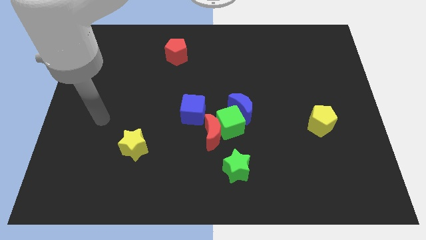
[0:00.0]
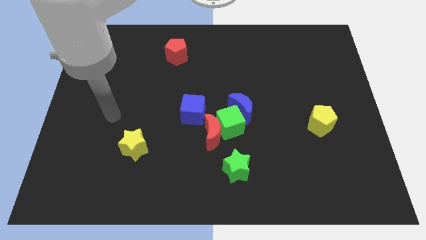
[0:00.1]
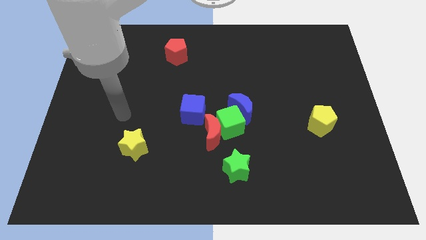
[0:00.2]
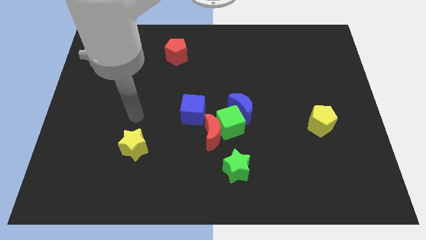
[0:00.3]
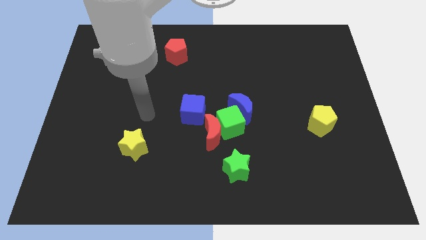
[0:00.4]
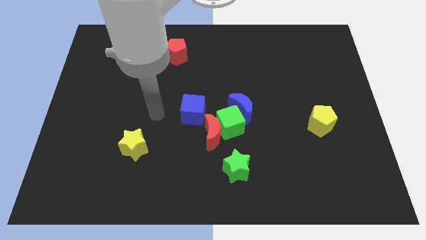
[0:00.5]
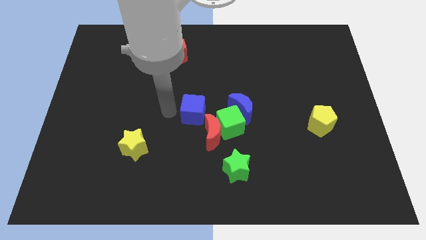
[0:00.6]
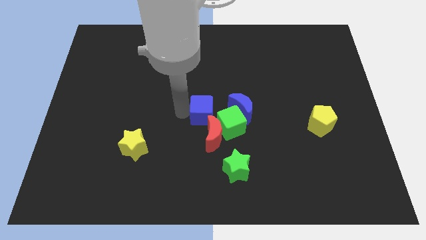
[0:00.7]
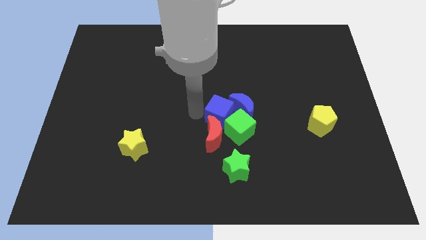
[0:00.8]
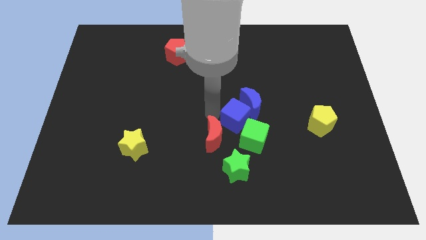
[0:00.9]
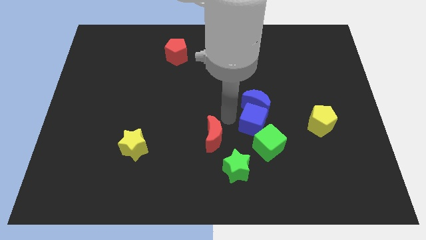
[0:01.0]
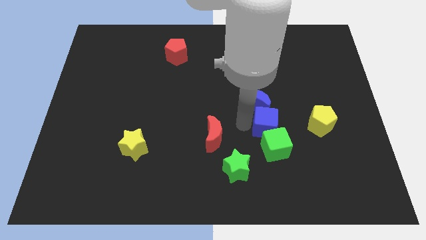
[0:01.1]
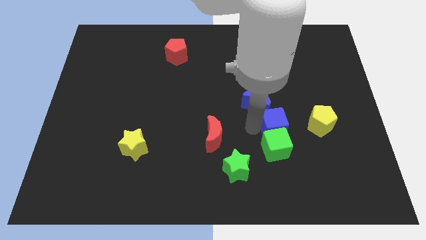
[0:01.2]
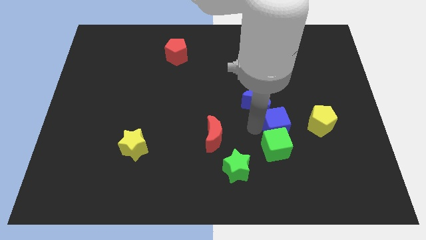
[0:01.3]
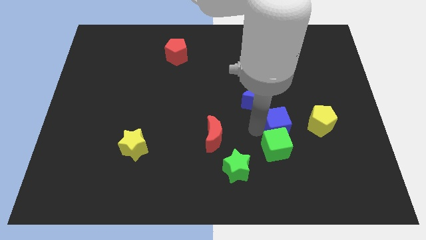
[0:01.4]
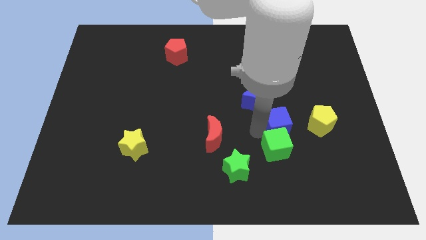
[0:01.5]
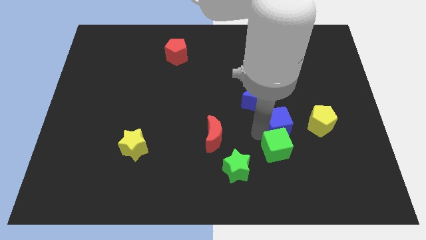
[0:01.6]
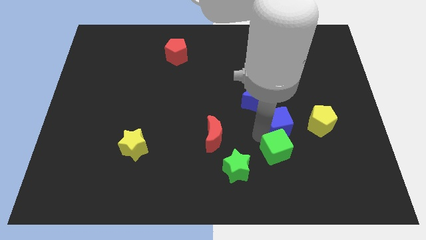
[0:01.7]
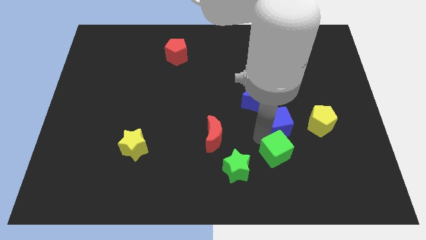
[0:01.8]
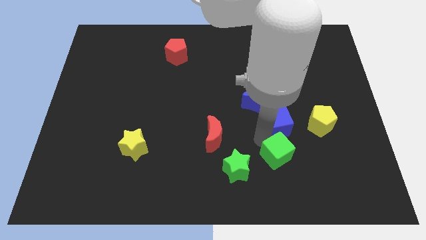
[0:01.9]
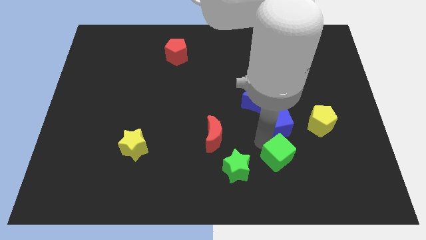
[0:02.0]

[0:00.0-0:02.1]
pull the green cube apart from the red moon, blue moon, and blue cube

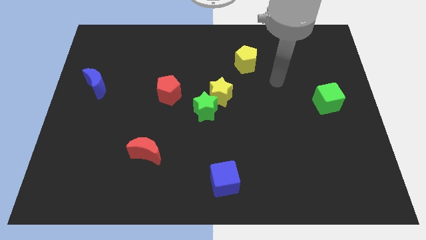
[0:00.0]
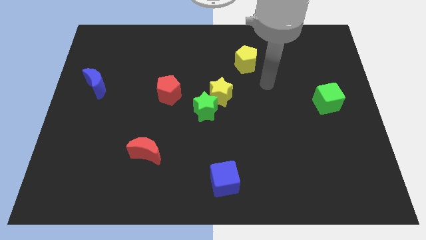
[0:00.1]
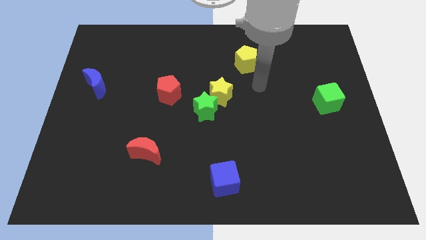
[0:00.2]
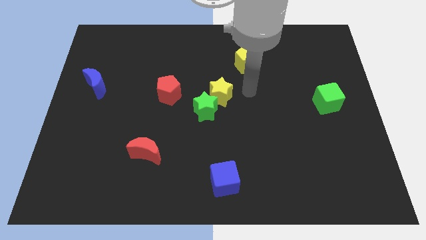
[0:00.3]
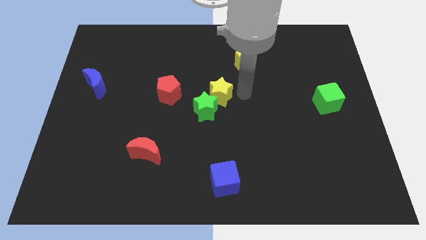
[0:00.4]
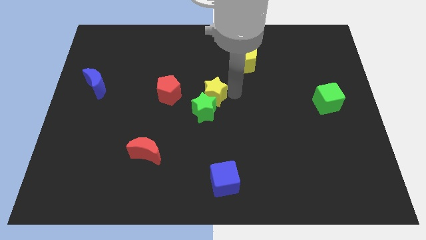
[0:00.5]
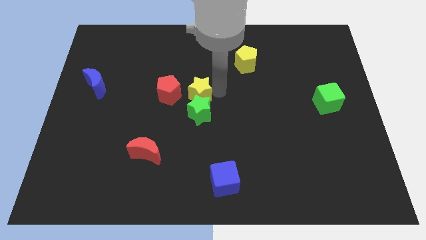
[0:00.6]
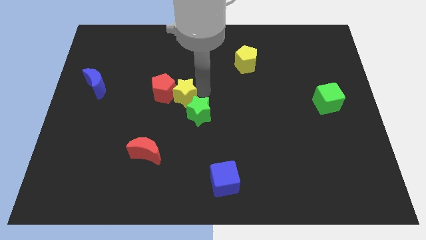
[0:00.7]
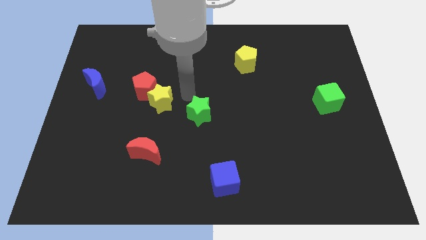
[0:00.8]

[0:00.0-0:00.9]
separate the green star from the yellow star

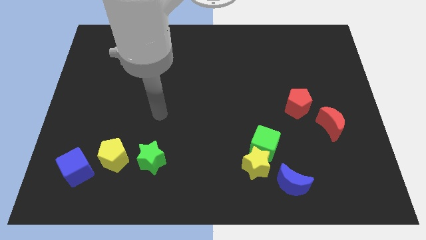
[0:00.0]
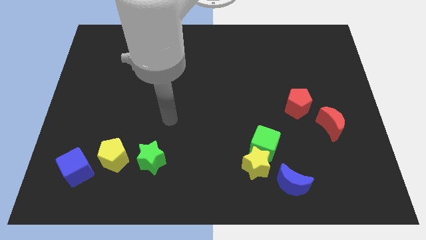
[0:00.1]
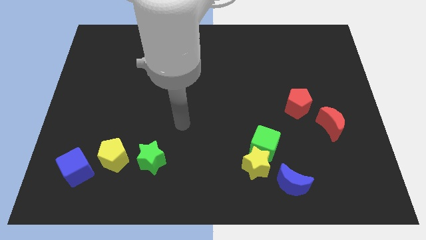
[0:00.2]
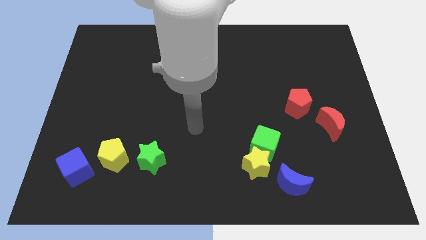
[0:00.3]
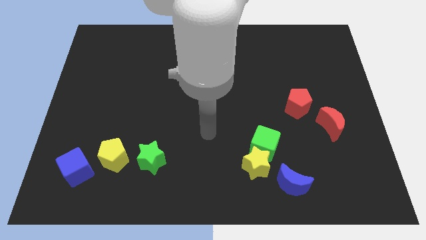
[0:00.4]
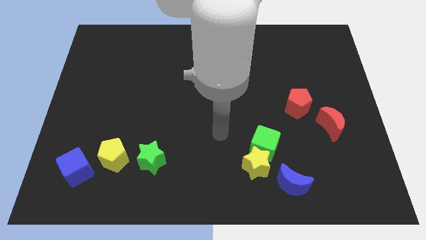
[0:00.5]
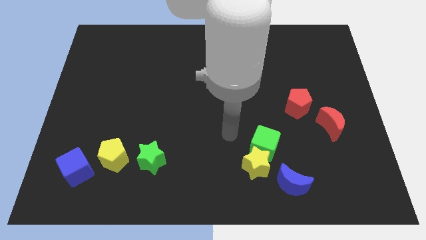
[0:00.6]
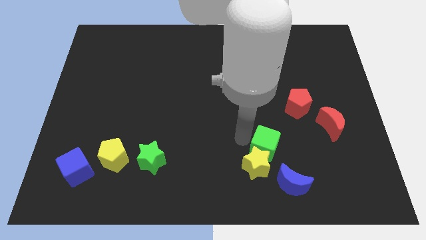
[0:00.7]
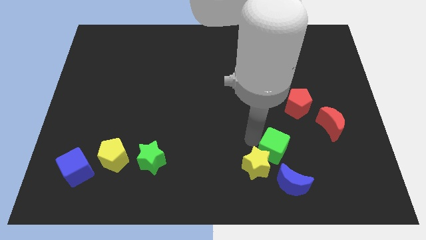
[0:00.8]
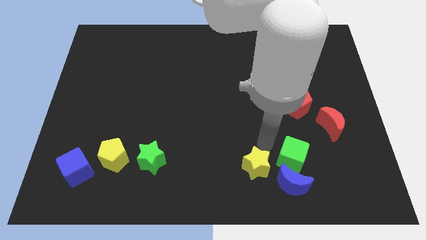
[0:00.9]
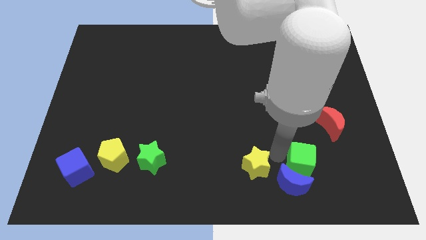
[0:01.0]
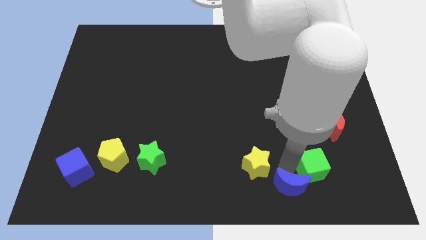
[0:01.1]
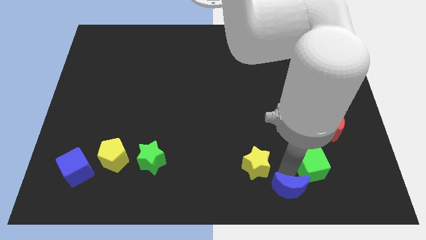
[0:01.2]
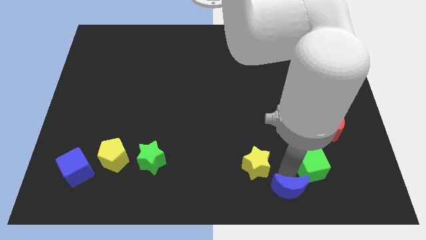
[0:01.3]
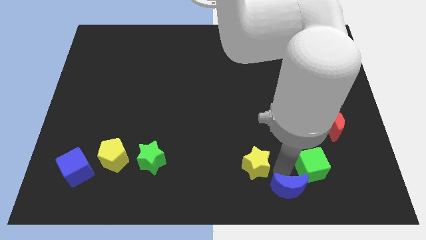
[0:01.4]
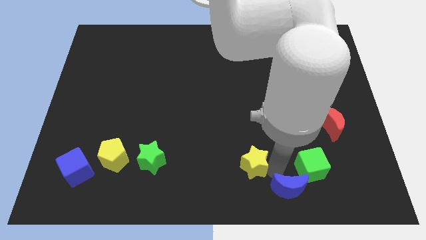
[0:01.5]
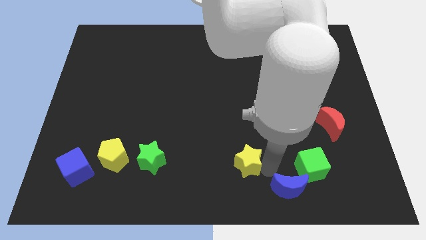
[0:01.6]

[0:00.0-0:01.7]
separate the yellow star from the green cube and blue moon

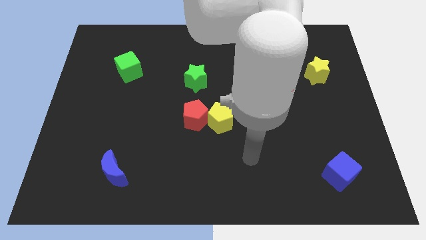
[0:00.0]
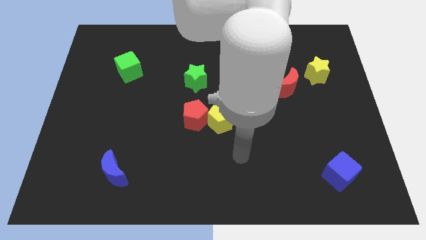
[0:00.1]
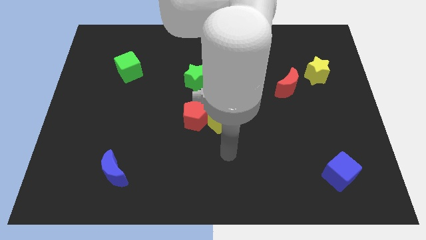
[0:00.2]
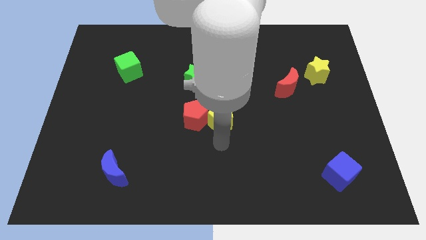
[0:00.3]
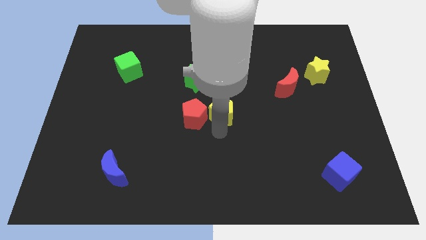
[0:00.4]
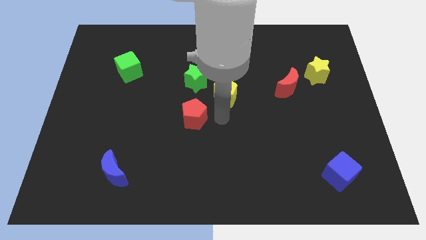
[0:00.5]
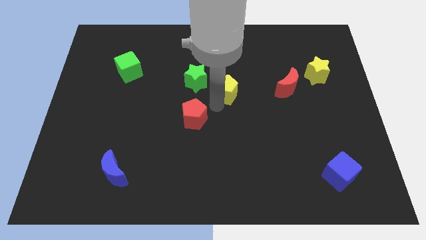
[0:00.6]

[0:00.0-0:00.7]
move the red pentagon away from the yellow pentagon

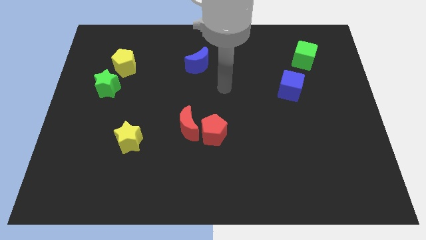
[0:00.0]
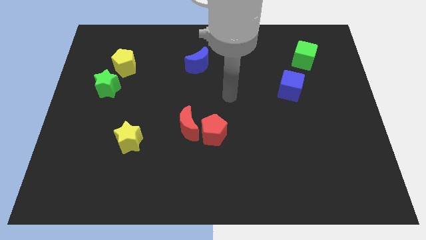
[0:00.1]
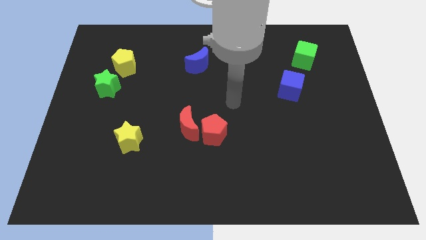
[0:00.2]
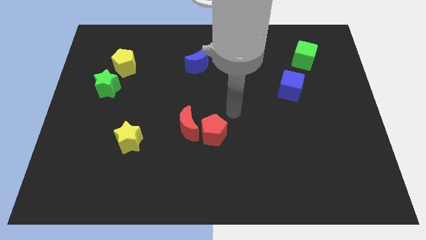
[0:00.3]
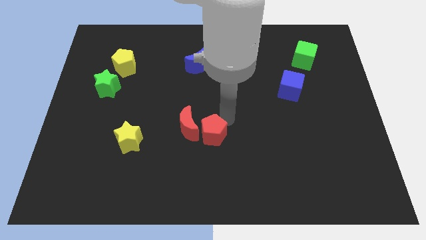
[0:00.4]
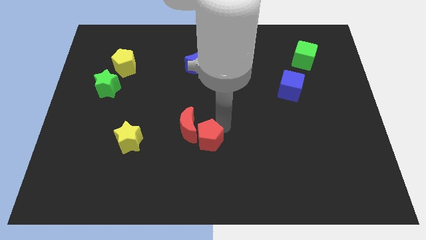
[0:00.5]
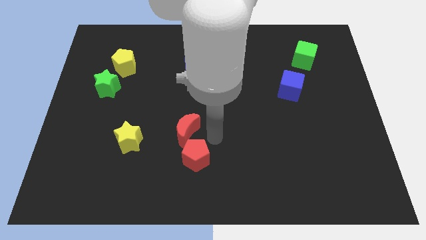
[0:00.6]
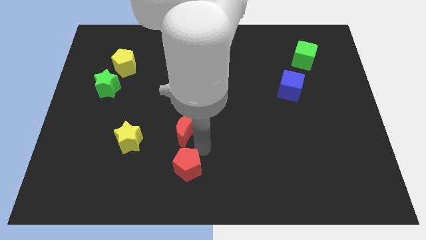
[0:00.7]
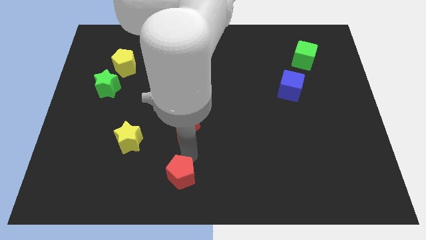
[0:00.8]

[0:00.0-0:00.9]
pull the red moon apart from the red pentagon

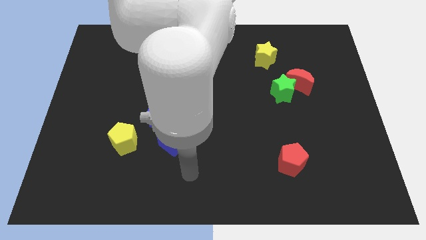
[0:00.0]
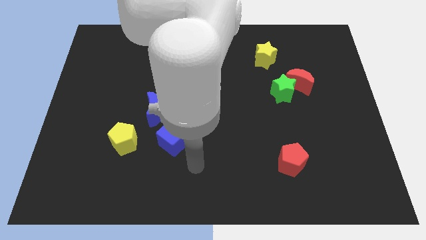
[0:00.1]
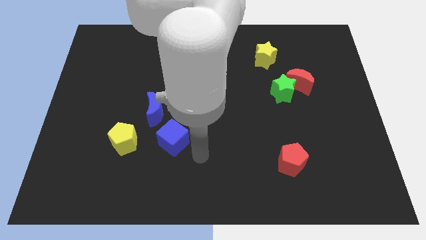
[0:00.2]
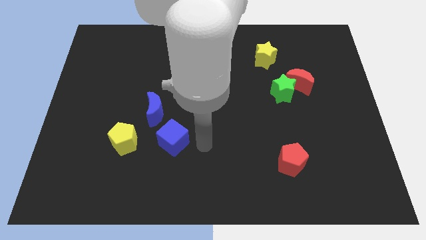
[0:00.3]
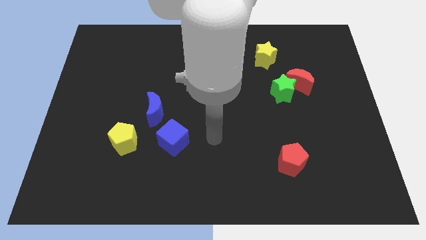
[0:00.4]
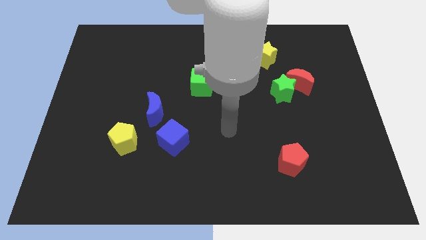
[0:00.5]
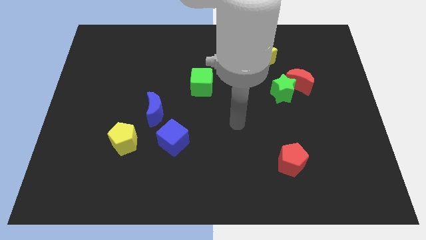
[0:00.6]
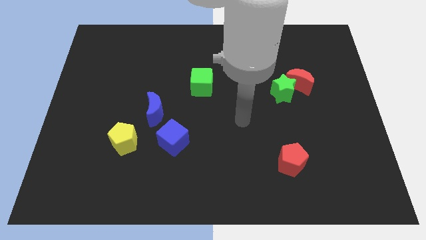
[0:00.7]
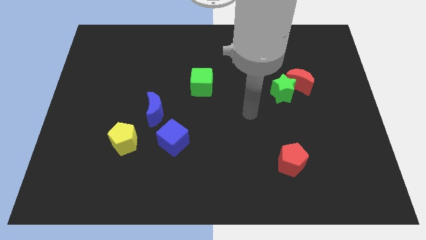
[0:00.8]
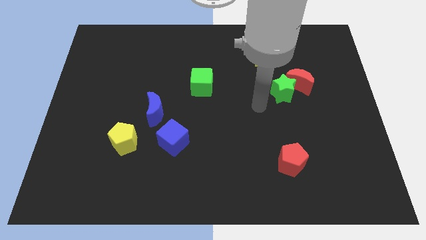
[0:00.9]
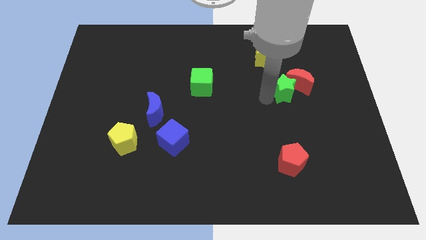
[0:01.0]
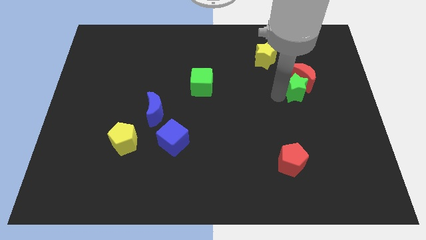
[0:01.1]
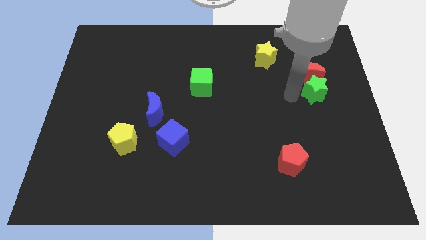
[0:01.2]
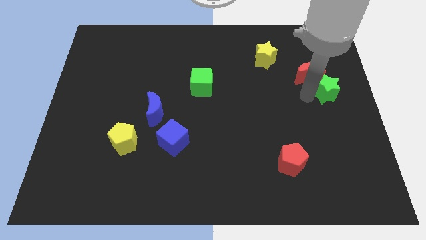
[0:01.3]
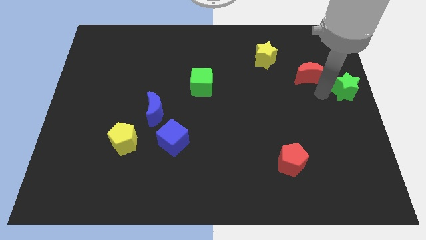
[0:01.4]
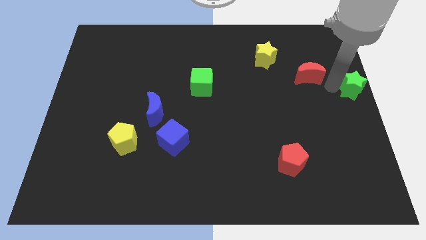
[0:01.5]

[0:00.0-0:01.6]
pull the red moon apart from the green star

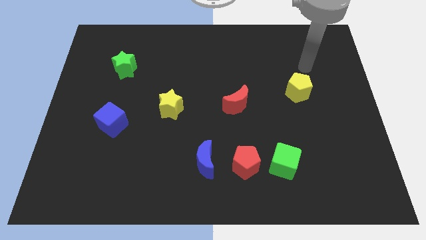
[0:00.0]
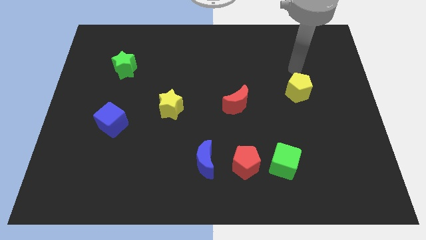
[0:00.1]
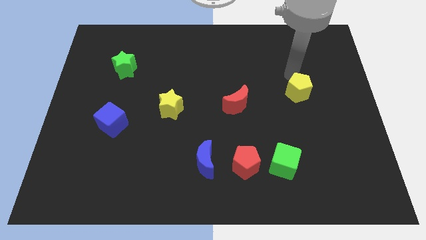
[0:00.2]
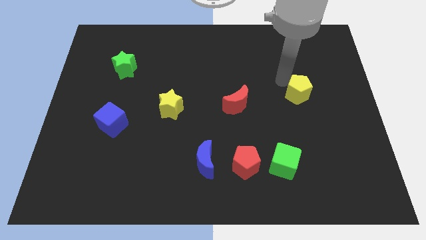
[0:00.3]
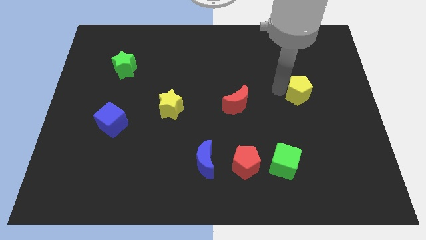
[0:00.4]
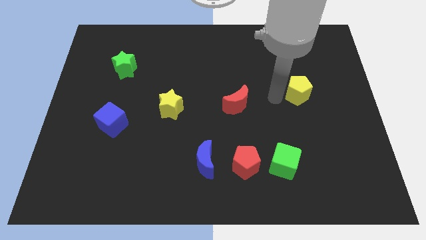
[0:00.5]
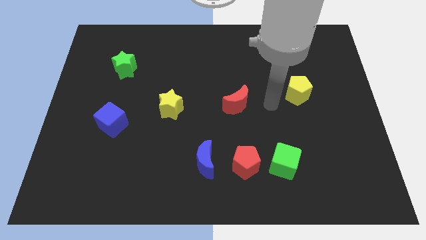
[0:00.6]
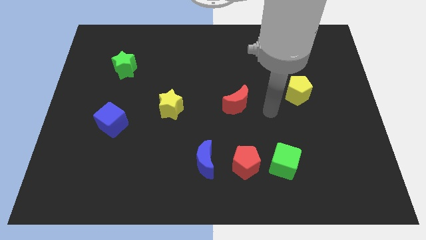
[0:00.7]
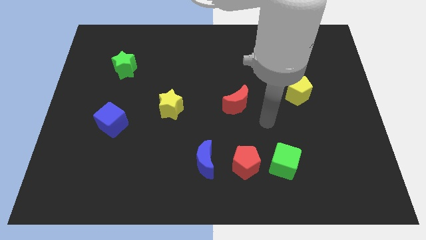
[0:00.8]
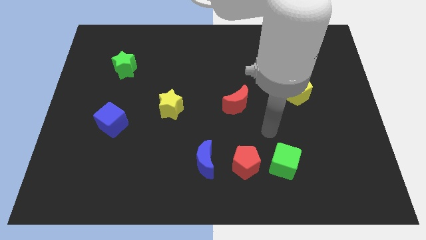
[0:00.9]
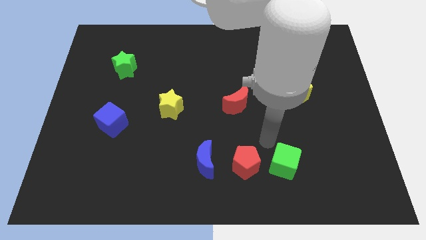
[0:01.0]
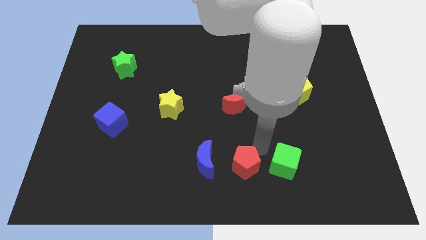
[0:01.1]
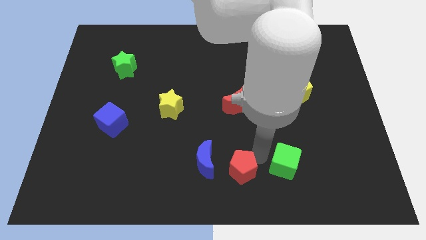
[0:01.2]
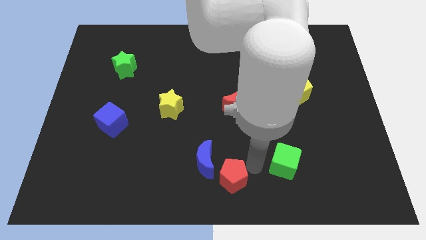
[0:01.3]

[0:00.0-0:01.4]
separate the green cube from the red pentagon
